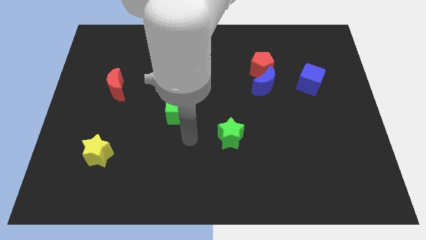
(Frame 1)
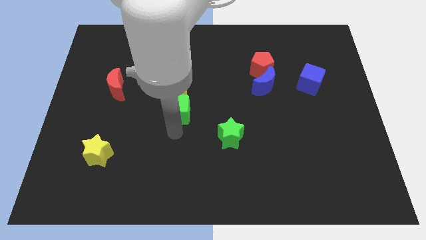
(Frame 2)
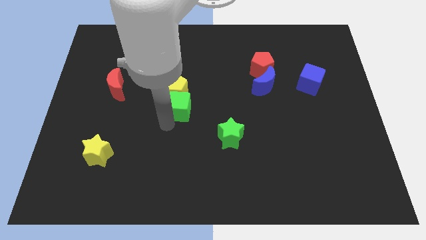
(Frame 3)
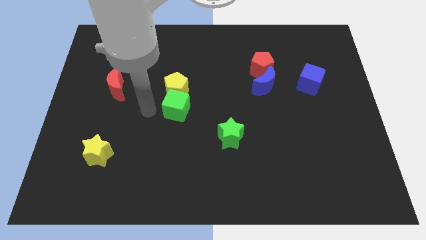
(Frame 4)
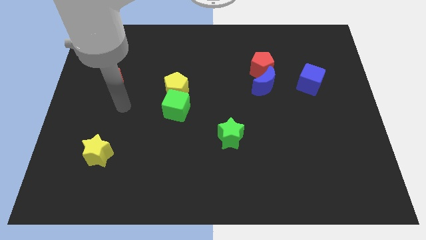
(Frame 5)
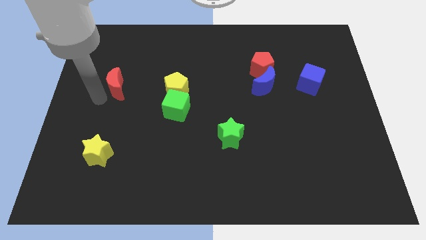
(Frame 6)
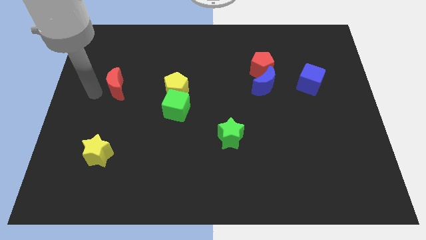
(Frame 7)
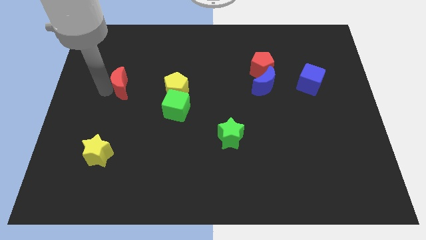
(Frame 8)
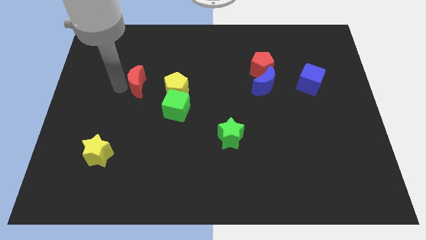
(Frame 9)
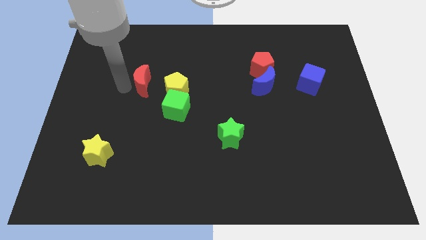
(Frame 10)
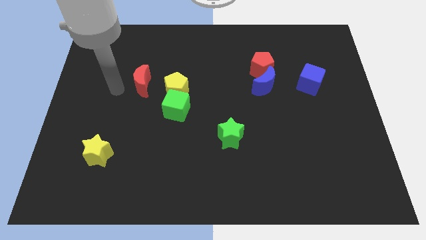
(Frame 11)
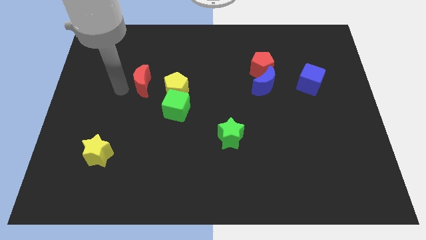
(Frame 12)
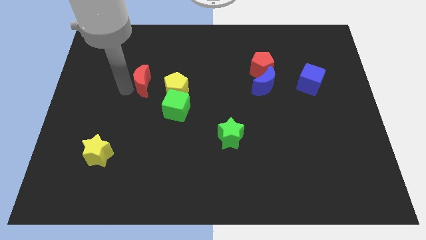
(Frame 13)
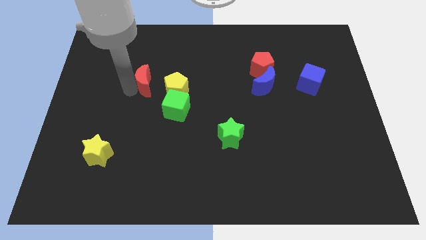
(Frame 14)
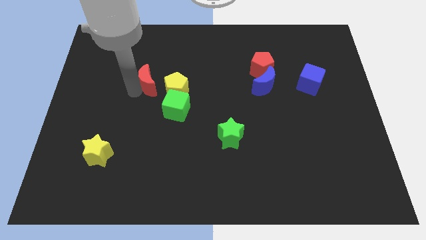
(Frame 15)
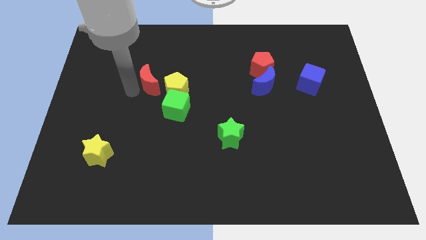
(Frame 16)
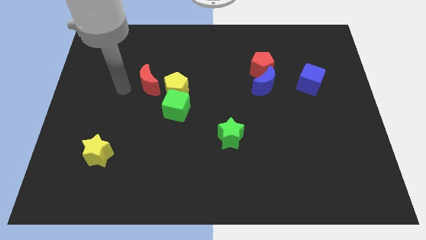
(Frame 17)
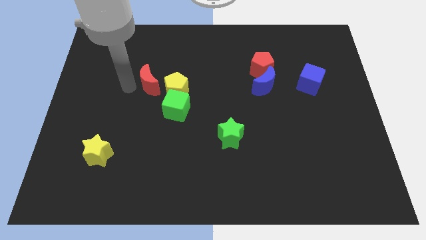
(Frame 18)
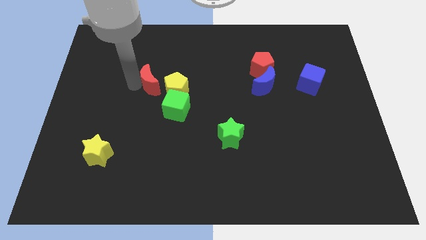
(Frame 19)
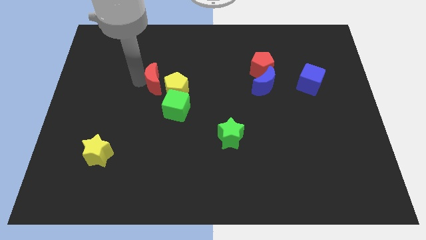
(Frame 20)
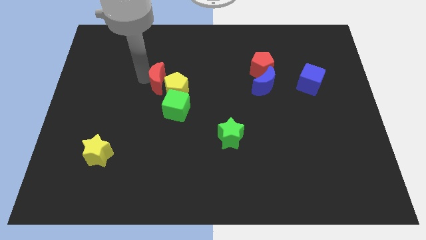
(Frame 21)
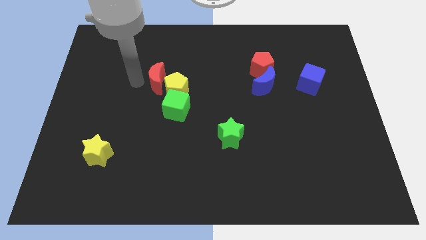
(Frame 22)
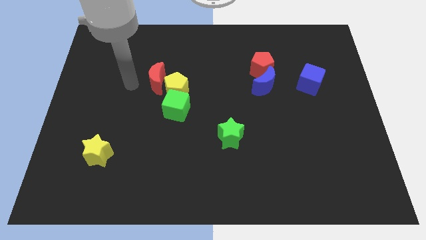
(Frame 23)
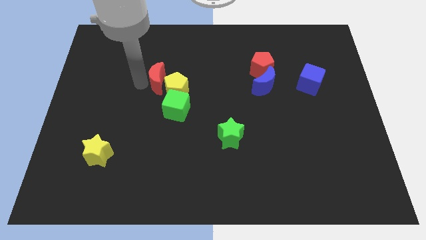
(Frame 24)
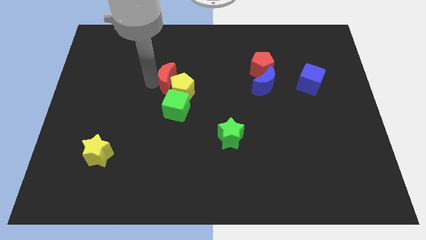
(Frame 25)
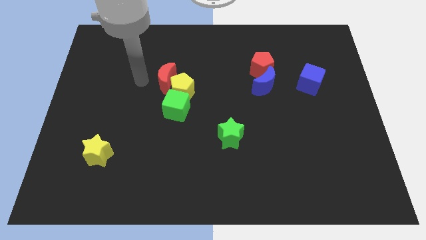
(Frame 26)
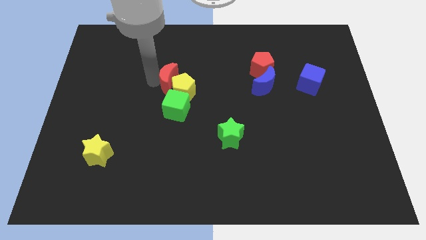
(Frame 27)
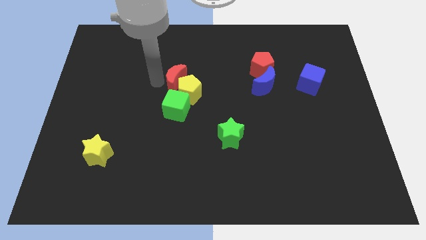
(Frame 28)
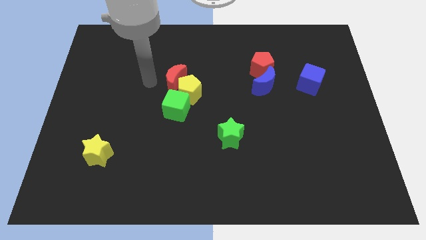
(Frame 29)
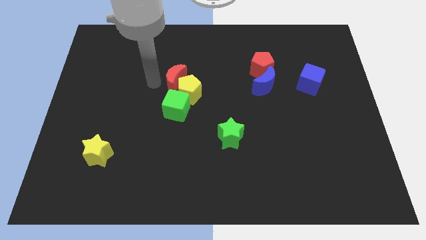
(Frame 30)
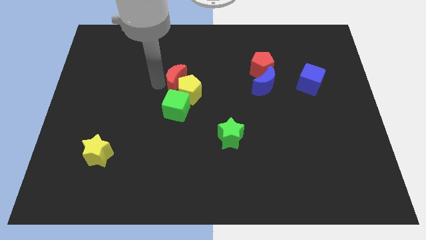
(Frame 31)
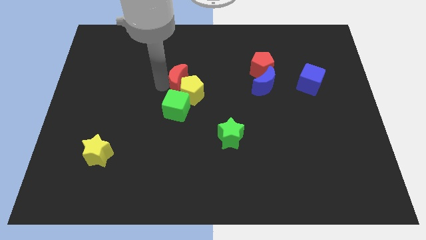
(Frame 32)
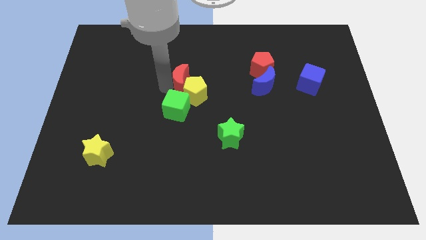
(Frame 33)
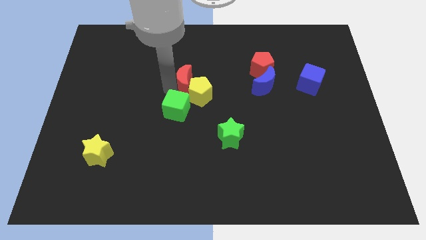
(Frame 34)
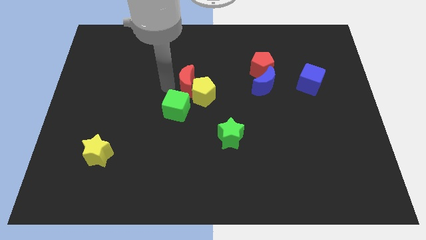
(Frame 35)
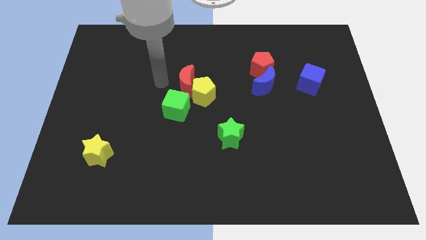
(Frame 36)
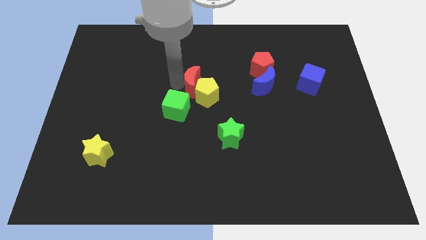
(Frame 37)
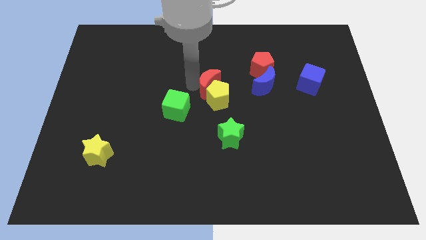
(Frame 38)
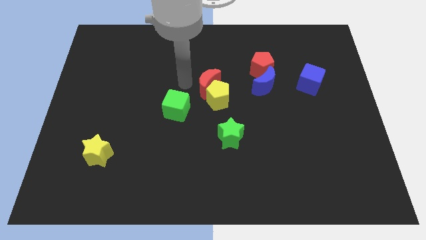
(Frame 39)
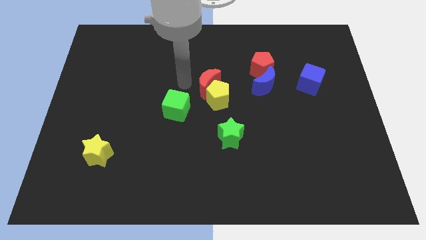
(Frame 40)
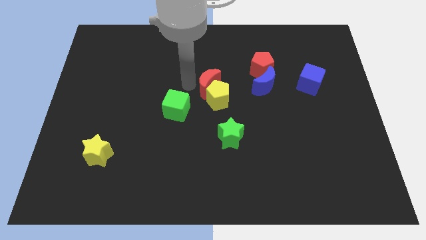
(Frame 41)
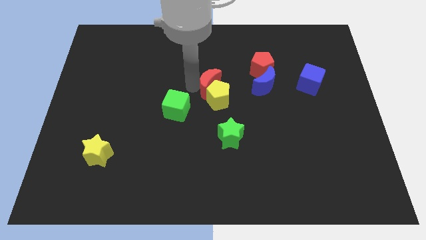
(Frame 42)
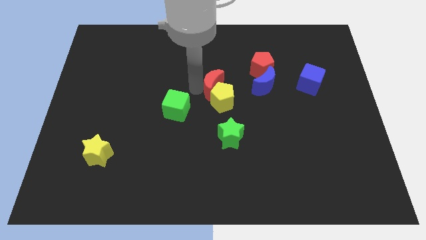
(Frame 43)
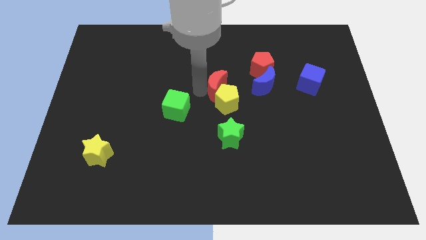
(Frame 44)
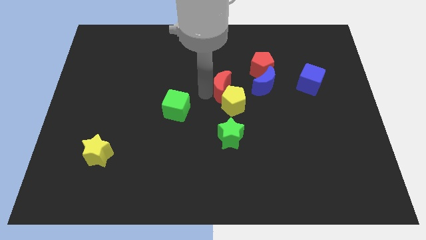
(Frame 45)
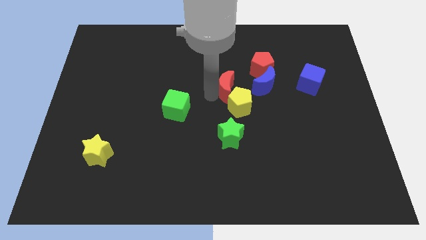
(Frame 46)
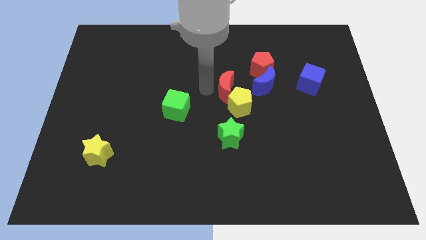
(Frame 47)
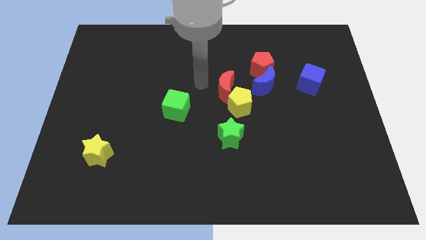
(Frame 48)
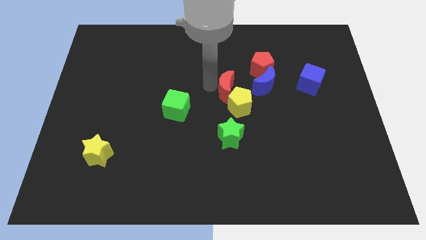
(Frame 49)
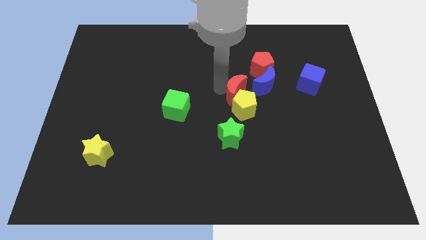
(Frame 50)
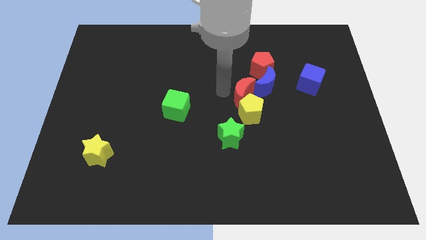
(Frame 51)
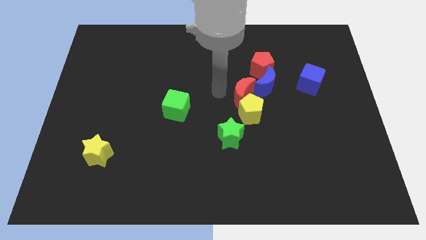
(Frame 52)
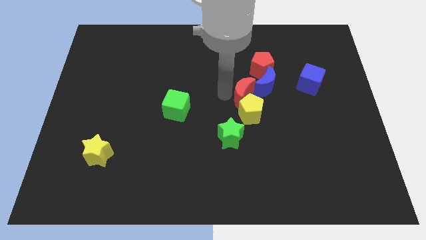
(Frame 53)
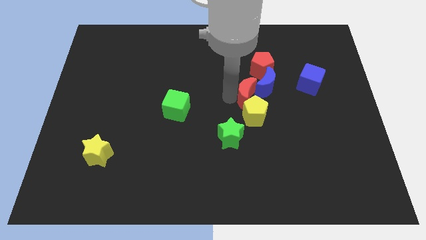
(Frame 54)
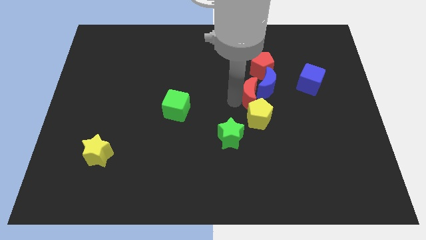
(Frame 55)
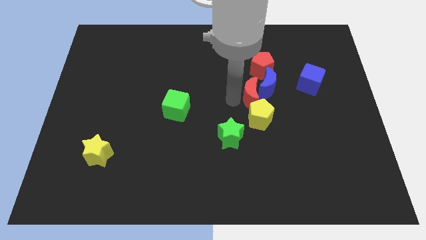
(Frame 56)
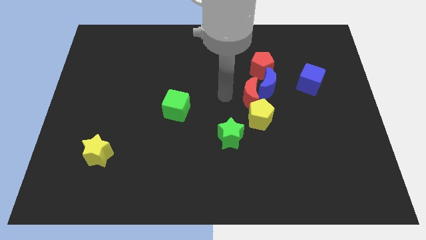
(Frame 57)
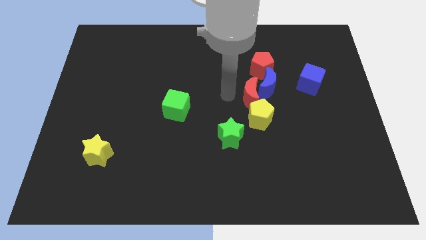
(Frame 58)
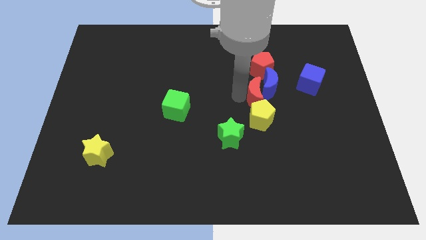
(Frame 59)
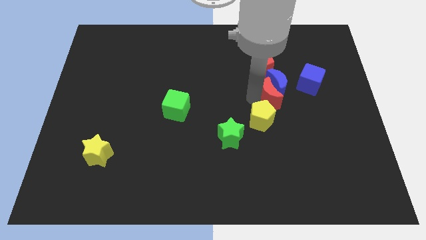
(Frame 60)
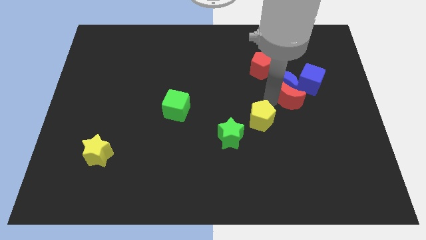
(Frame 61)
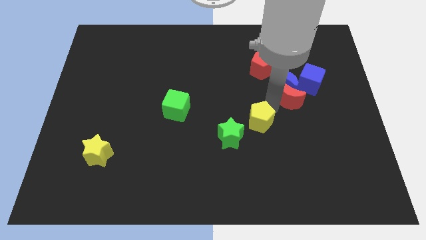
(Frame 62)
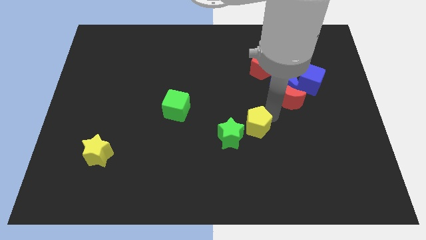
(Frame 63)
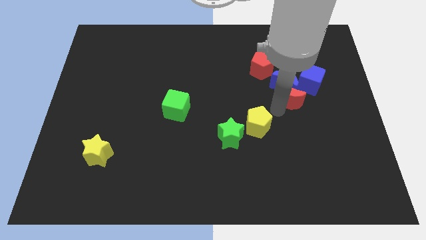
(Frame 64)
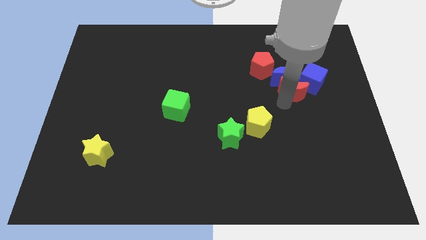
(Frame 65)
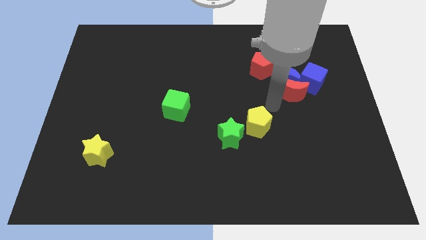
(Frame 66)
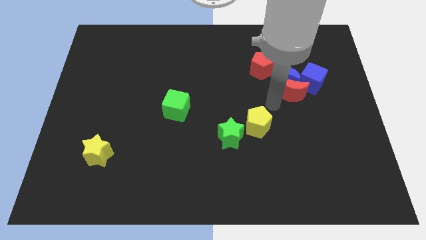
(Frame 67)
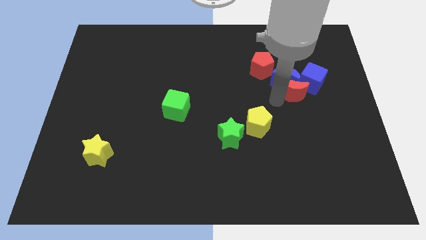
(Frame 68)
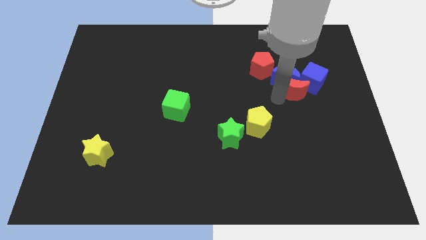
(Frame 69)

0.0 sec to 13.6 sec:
put the red moon next to the blue cube
